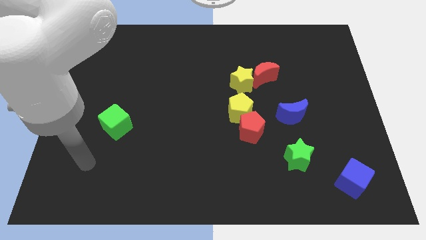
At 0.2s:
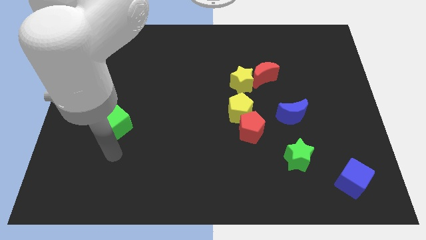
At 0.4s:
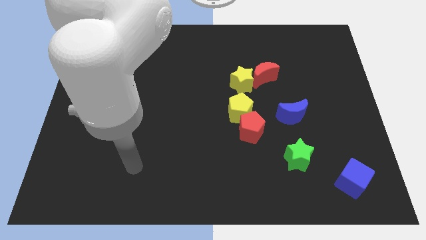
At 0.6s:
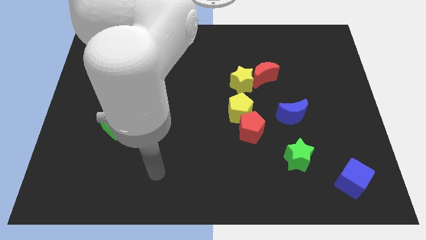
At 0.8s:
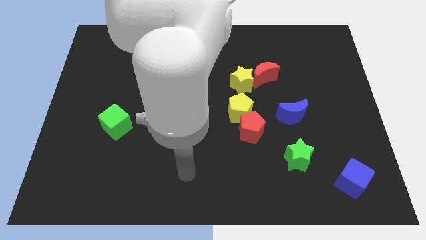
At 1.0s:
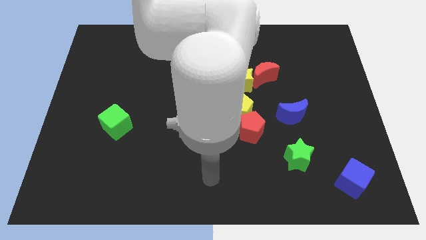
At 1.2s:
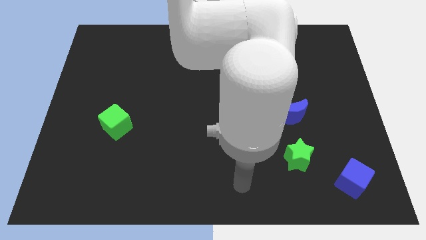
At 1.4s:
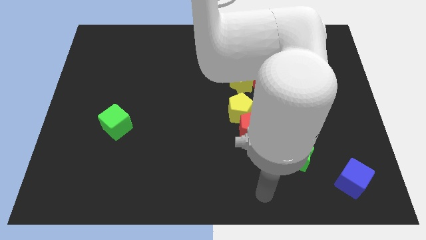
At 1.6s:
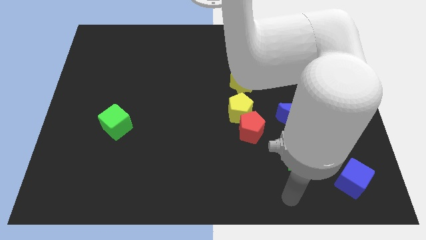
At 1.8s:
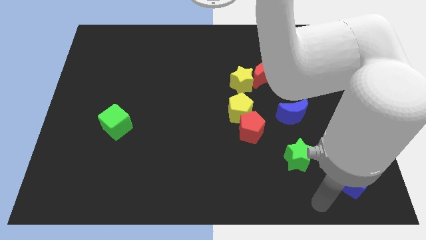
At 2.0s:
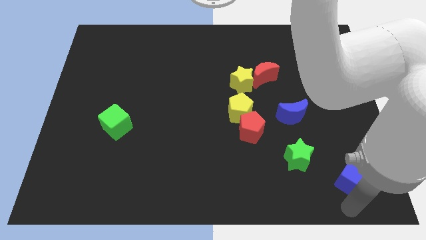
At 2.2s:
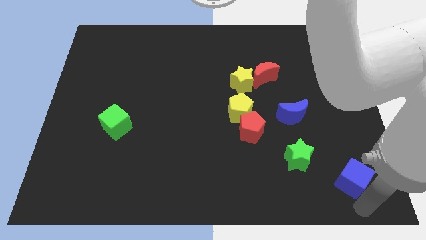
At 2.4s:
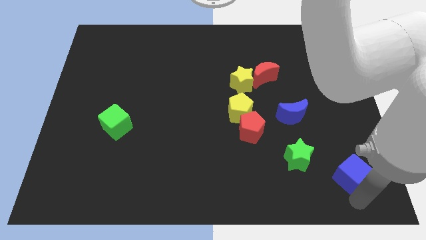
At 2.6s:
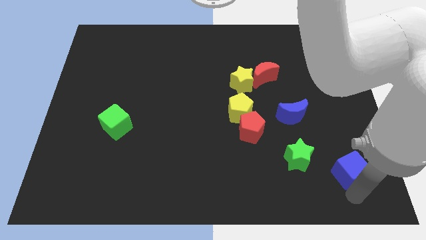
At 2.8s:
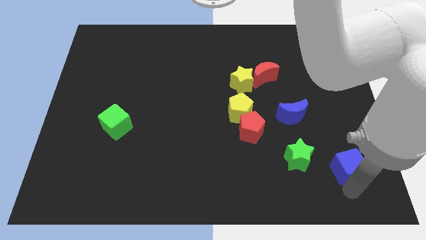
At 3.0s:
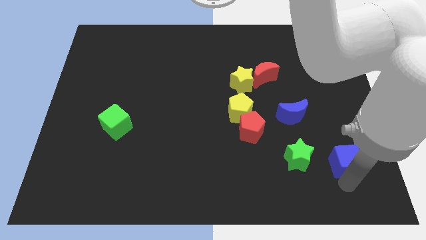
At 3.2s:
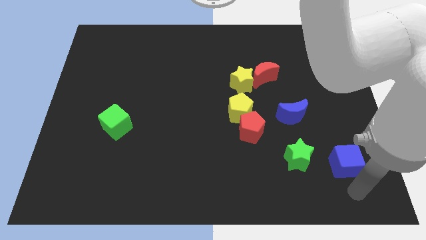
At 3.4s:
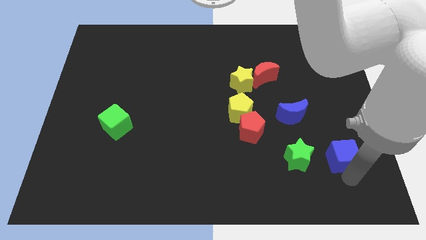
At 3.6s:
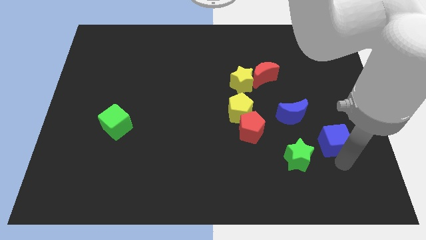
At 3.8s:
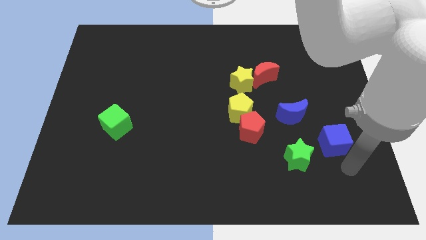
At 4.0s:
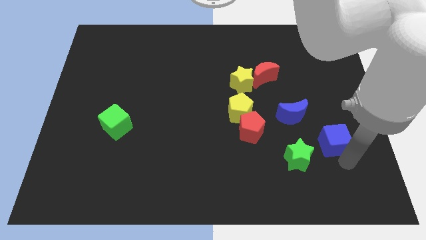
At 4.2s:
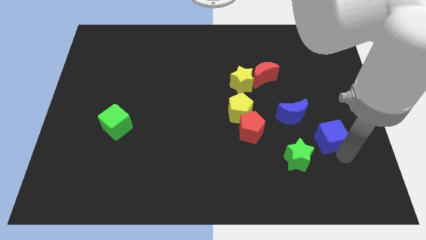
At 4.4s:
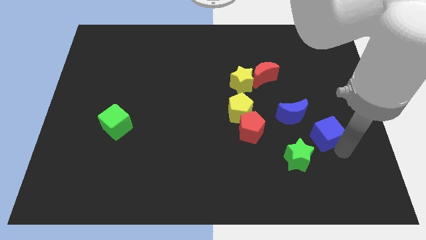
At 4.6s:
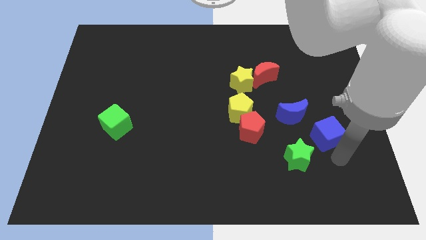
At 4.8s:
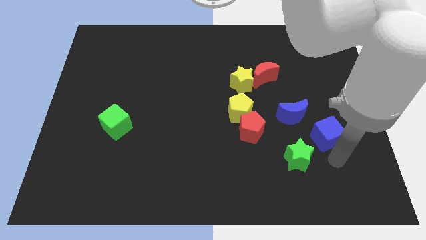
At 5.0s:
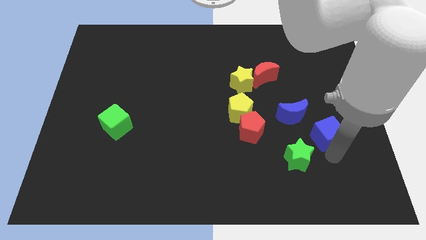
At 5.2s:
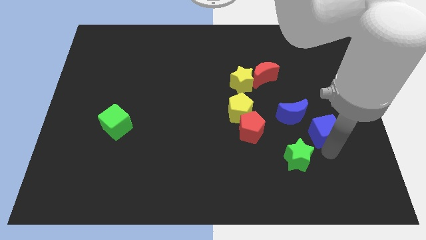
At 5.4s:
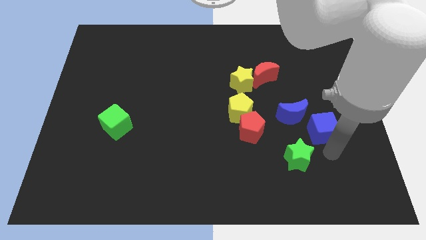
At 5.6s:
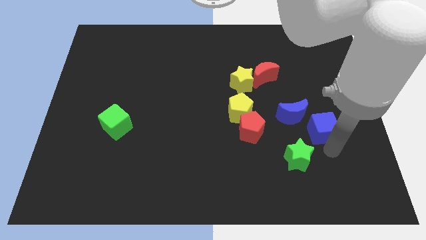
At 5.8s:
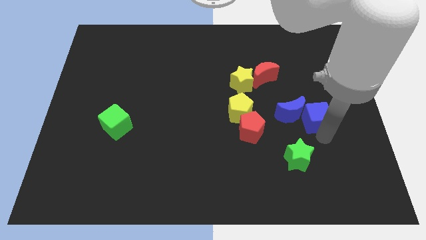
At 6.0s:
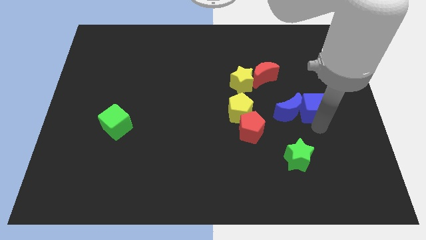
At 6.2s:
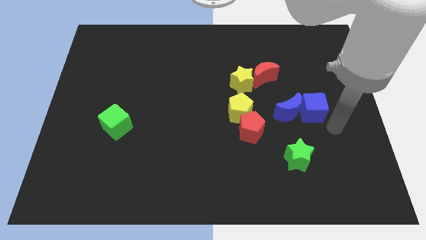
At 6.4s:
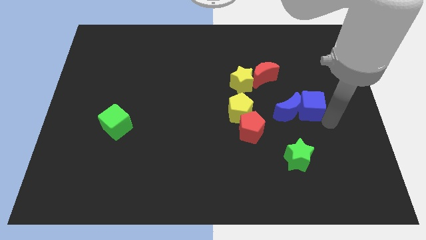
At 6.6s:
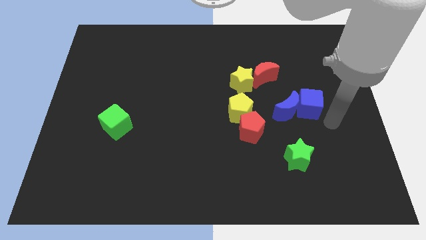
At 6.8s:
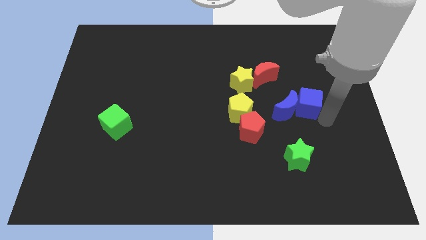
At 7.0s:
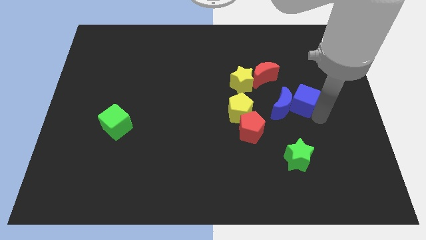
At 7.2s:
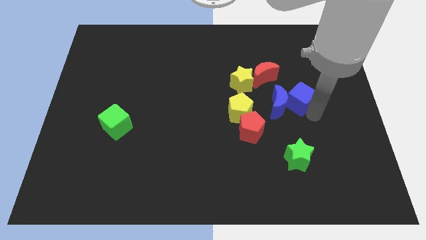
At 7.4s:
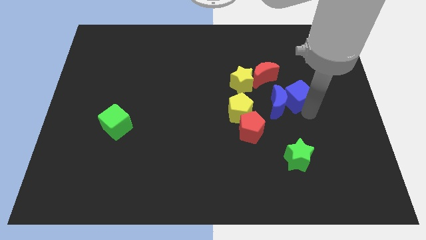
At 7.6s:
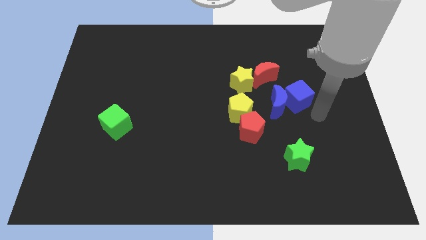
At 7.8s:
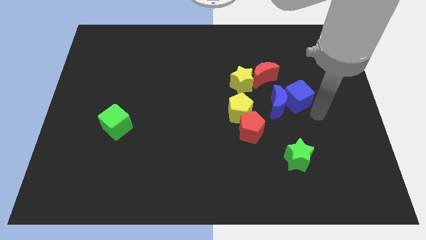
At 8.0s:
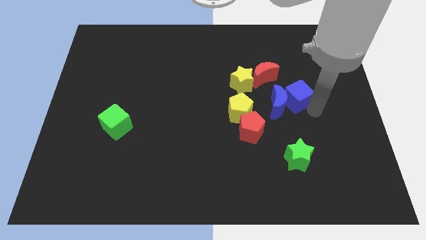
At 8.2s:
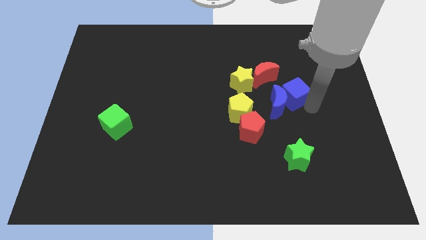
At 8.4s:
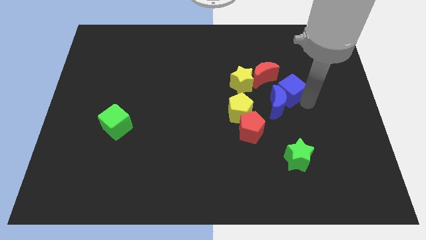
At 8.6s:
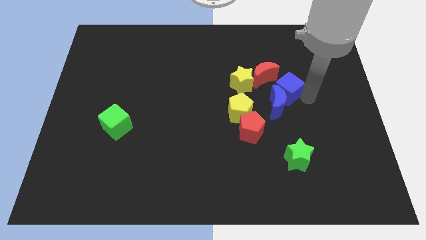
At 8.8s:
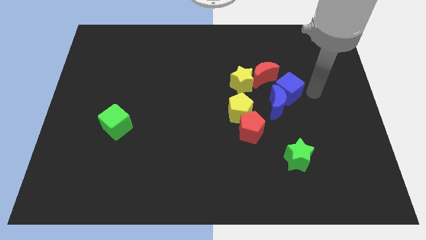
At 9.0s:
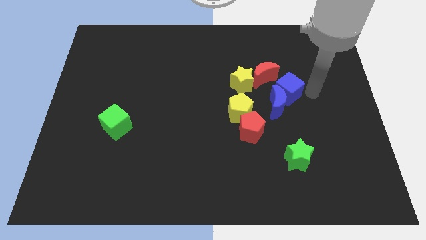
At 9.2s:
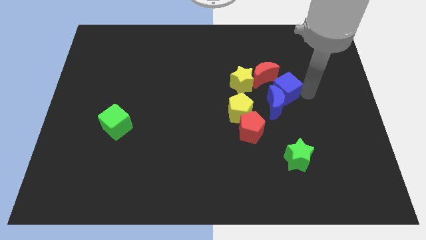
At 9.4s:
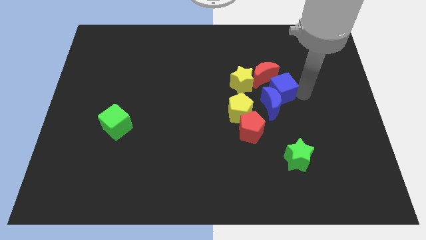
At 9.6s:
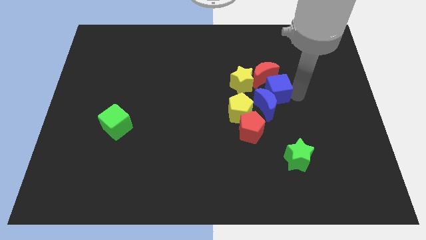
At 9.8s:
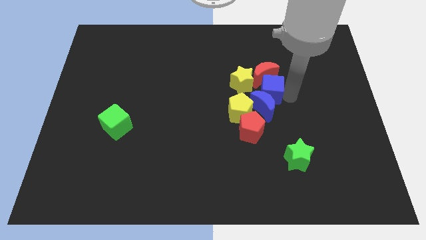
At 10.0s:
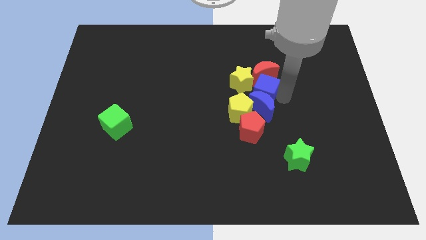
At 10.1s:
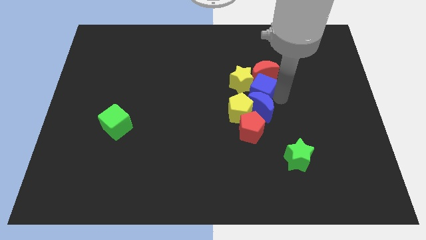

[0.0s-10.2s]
push the blue cube towards the yellow star

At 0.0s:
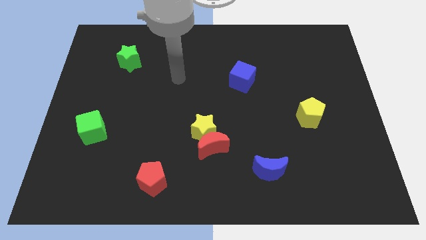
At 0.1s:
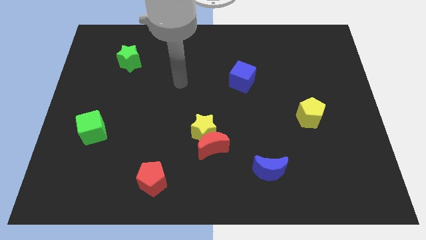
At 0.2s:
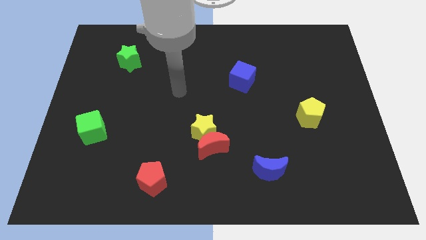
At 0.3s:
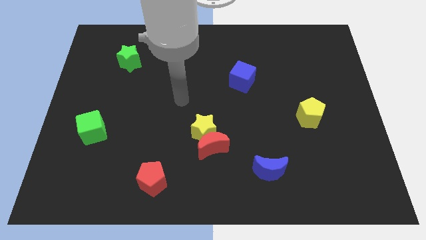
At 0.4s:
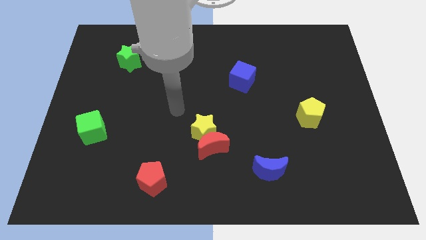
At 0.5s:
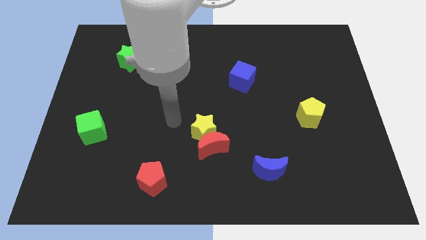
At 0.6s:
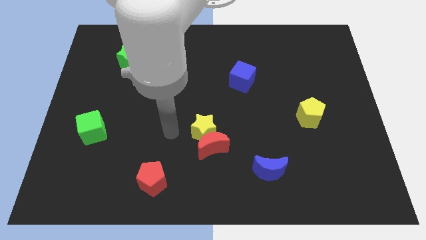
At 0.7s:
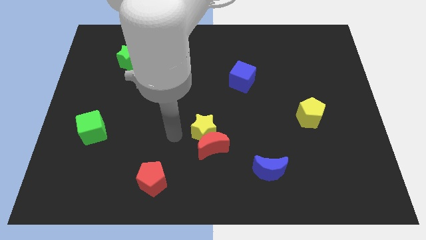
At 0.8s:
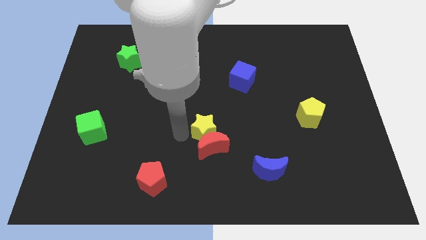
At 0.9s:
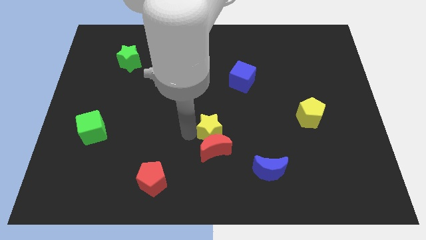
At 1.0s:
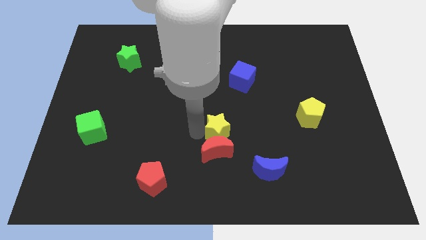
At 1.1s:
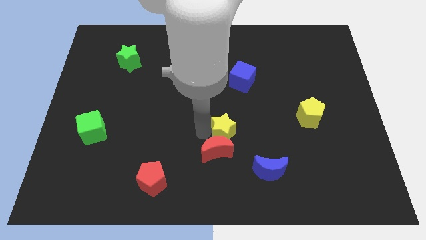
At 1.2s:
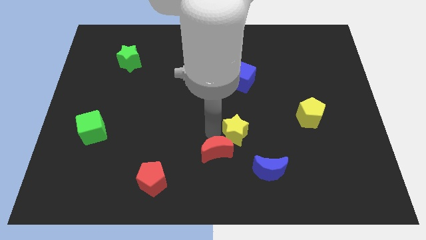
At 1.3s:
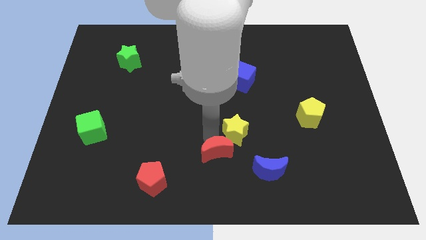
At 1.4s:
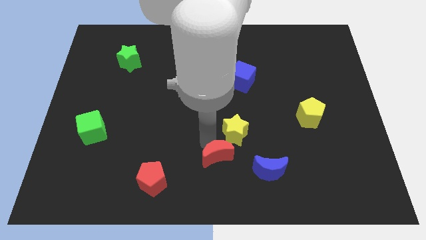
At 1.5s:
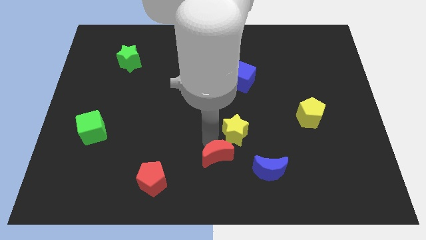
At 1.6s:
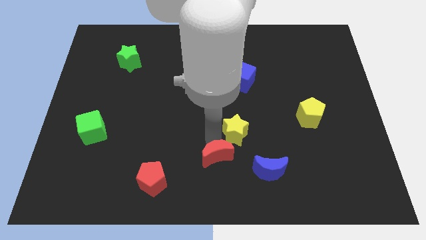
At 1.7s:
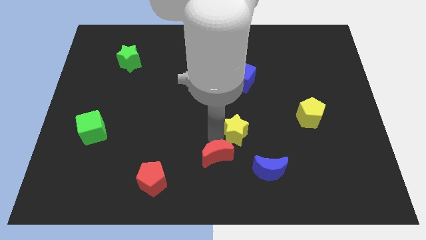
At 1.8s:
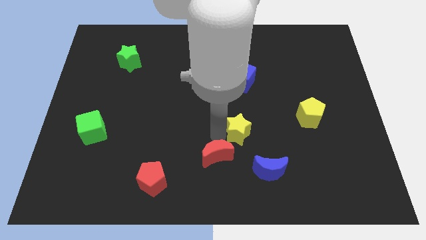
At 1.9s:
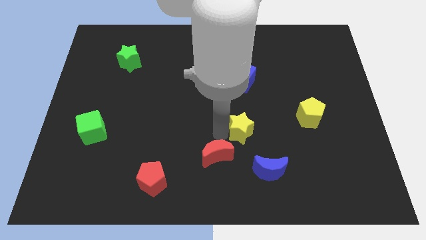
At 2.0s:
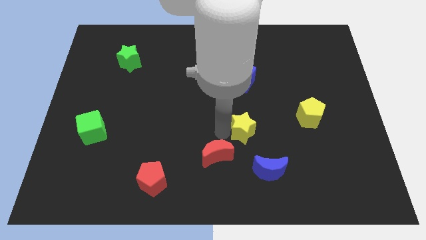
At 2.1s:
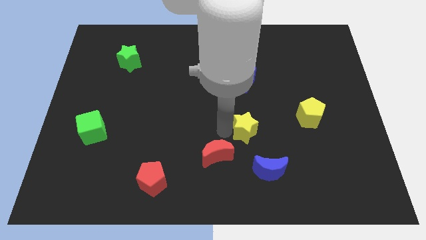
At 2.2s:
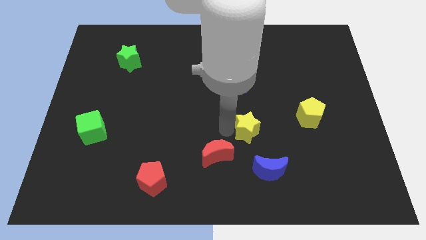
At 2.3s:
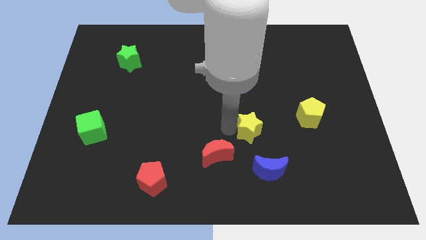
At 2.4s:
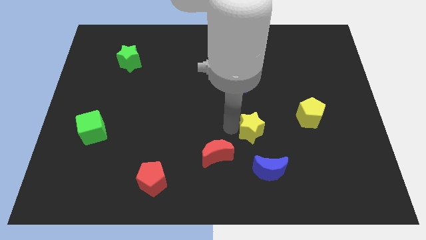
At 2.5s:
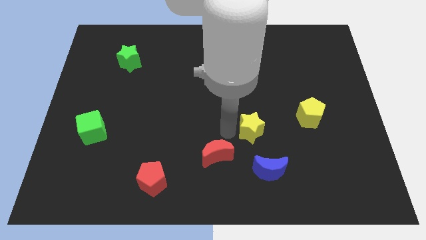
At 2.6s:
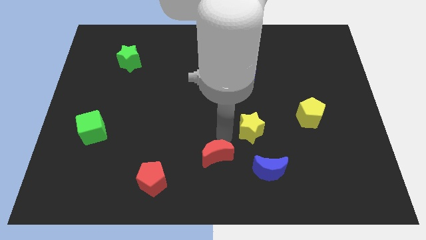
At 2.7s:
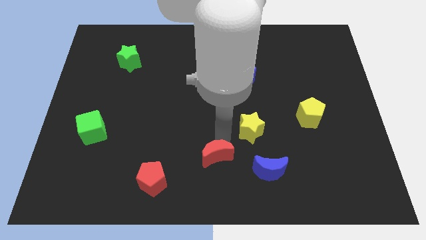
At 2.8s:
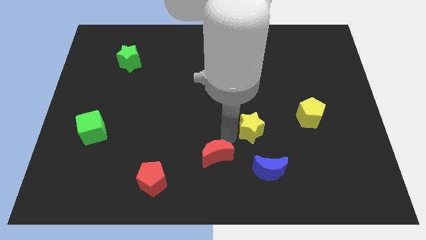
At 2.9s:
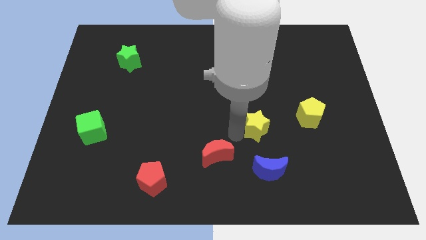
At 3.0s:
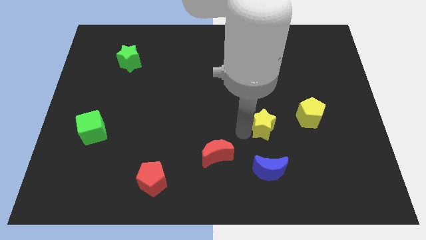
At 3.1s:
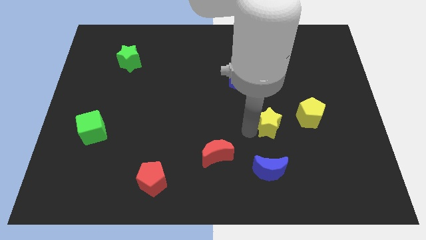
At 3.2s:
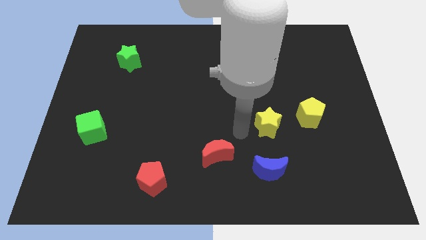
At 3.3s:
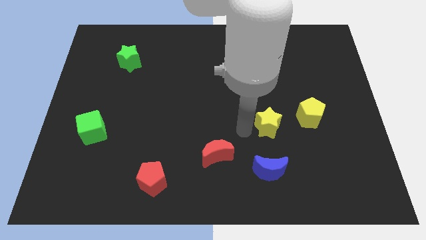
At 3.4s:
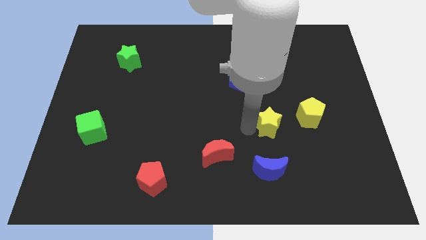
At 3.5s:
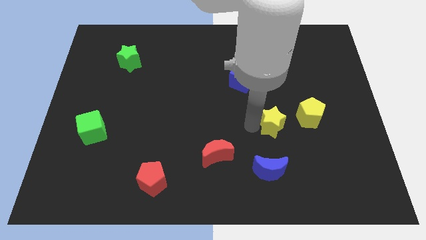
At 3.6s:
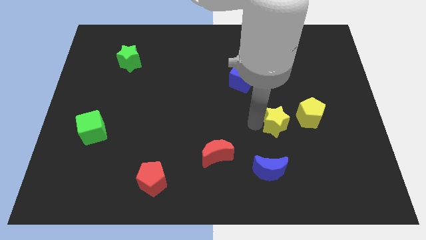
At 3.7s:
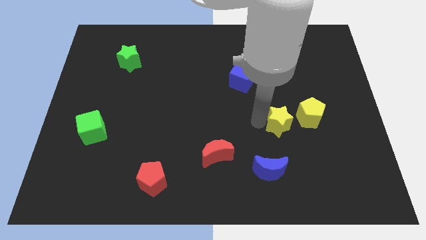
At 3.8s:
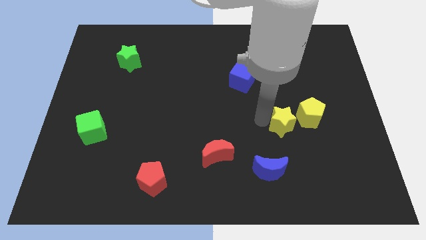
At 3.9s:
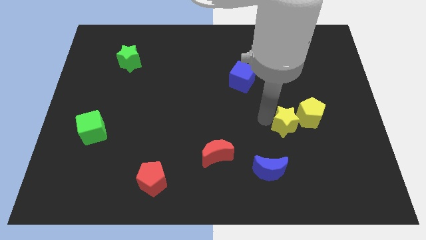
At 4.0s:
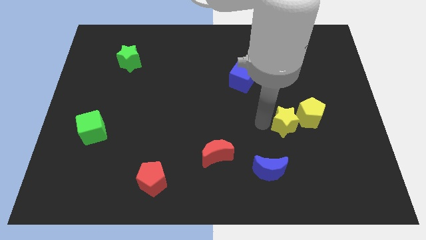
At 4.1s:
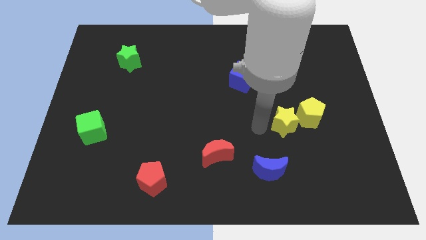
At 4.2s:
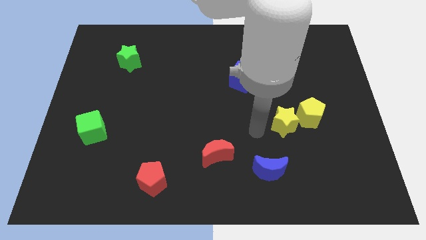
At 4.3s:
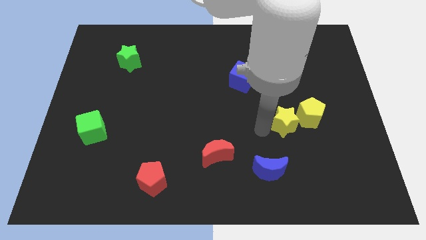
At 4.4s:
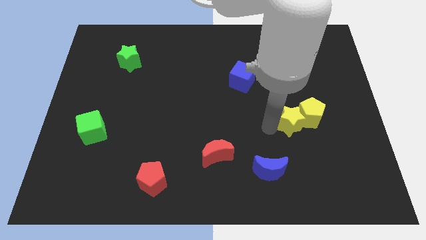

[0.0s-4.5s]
slide the yellow star close to the yellow pentagon
